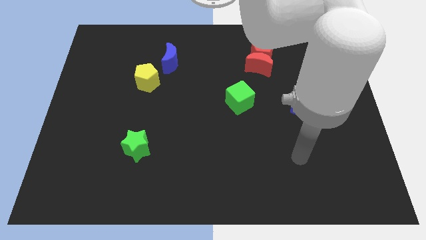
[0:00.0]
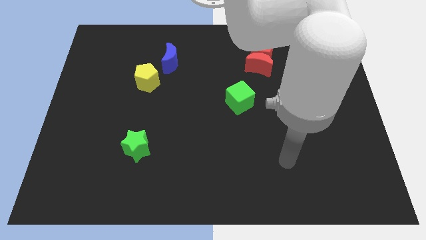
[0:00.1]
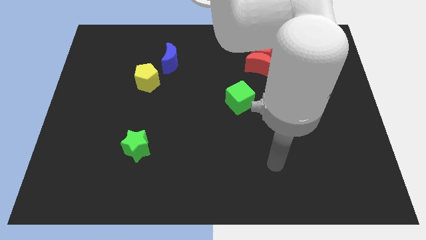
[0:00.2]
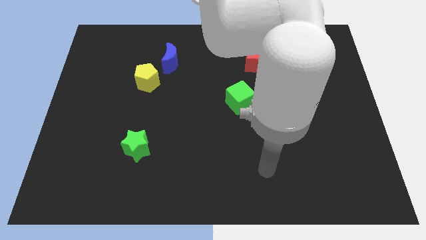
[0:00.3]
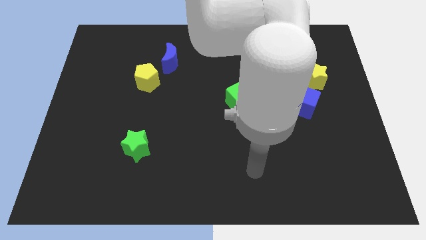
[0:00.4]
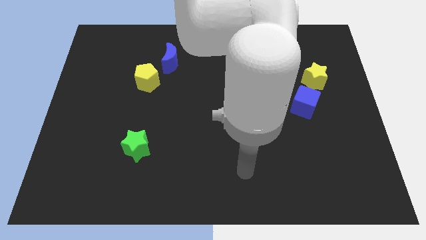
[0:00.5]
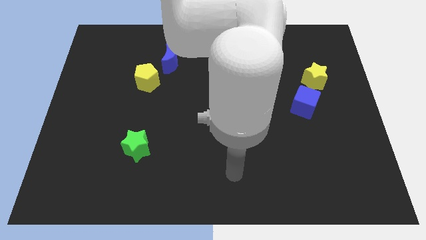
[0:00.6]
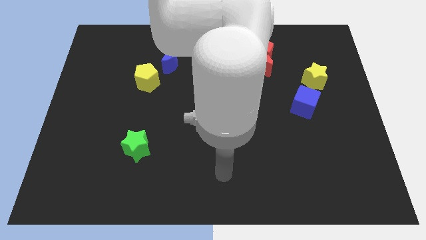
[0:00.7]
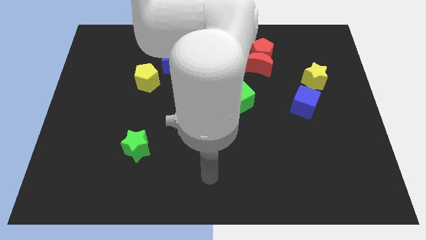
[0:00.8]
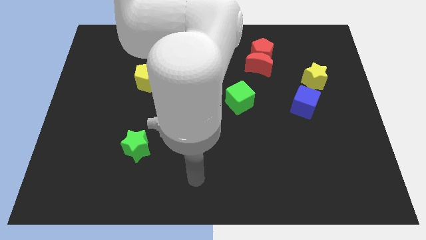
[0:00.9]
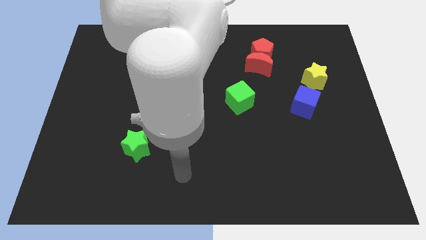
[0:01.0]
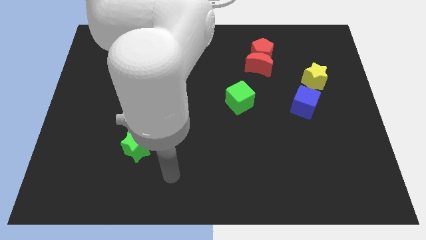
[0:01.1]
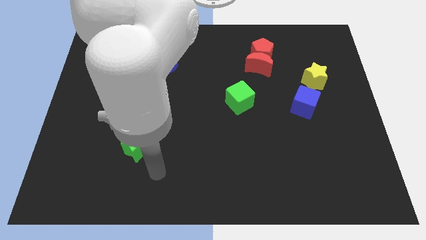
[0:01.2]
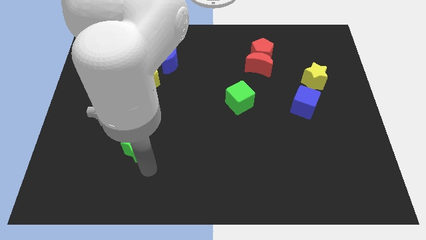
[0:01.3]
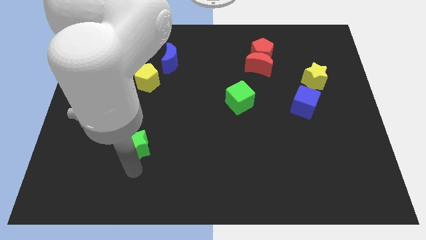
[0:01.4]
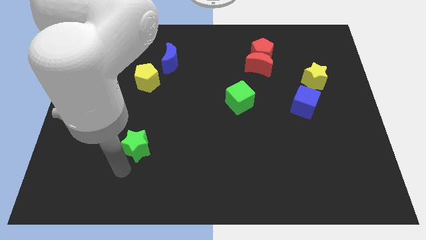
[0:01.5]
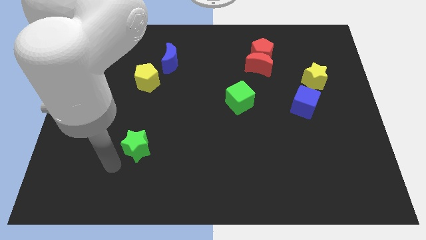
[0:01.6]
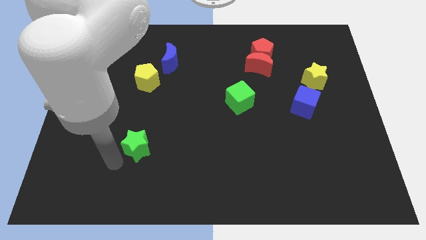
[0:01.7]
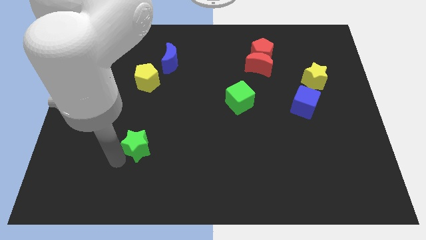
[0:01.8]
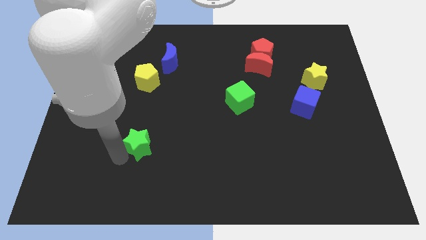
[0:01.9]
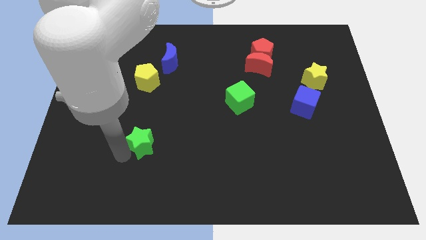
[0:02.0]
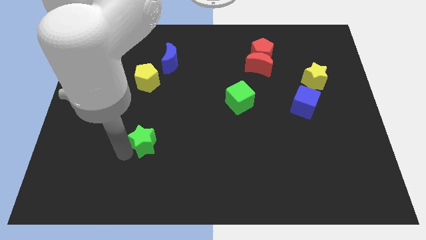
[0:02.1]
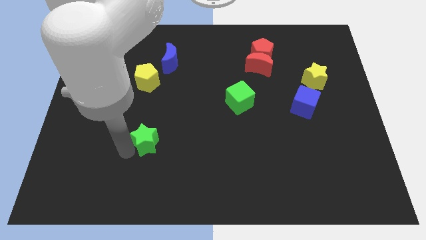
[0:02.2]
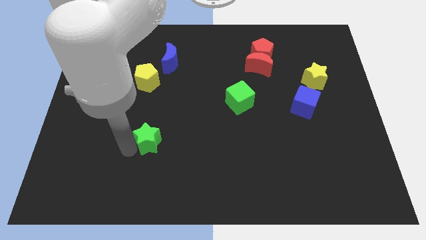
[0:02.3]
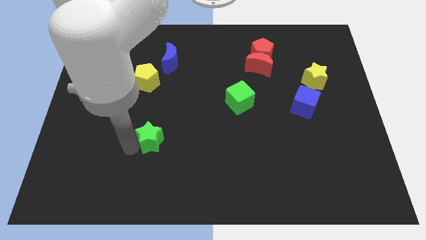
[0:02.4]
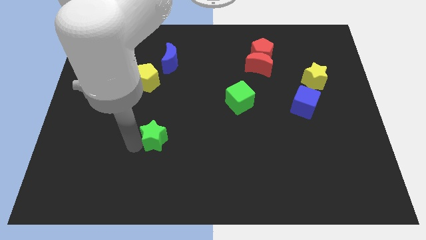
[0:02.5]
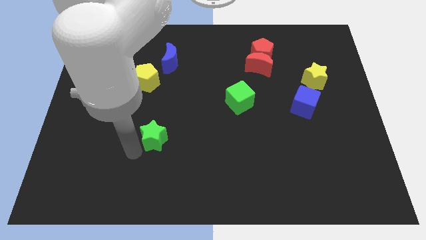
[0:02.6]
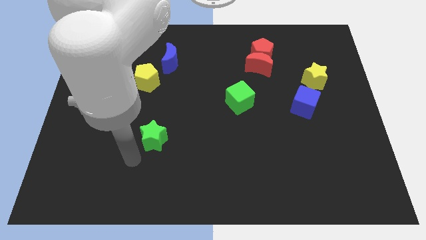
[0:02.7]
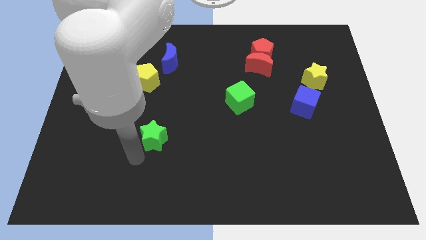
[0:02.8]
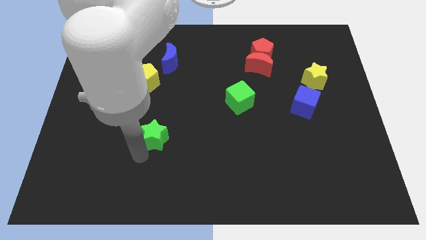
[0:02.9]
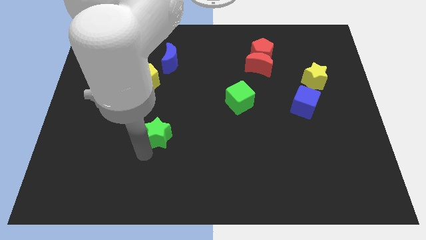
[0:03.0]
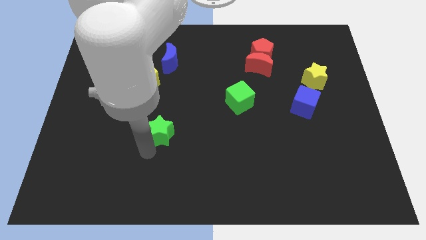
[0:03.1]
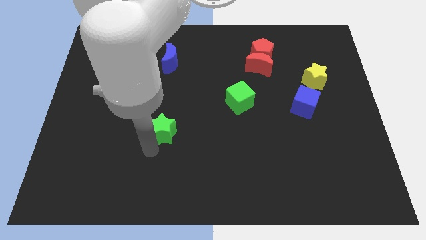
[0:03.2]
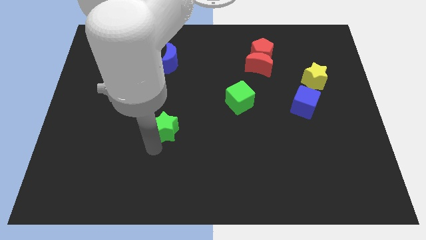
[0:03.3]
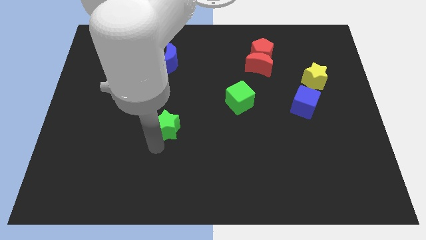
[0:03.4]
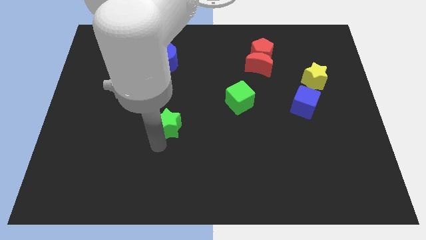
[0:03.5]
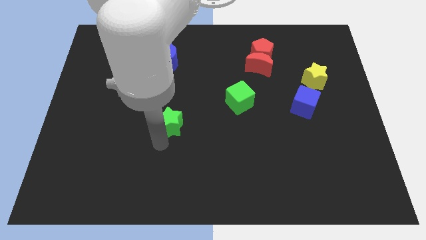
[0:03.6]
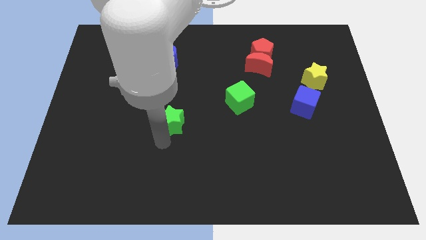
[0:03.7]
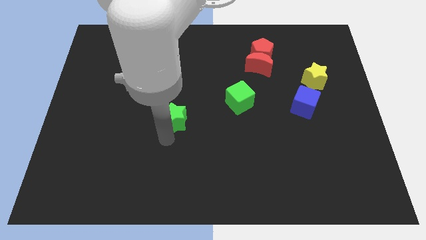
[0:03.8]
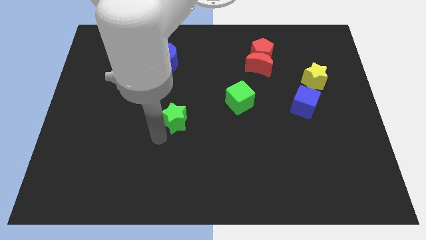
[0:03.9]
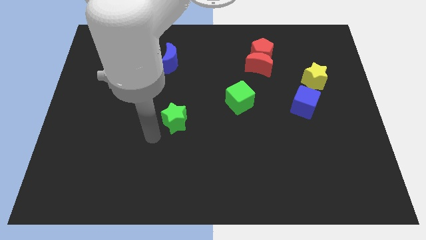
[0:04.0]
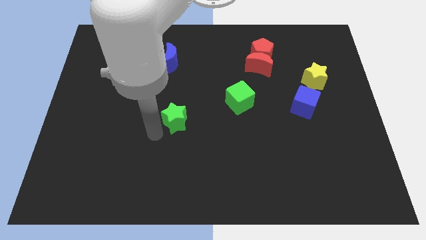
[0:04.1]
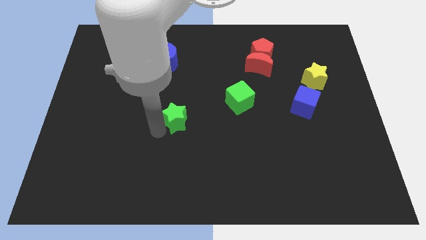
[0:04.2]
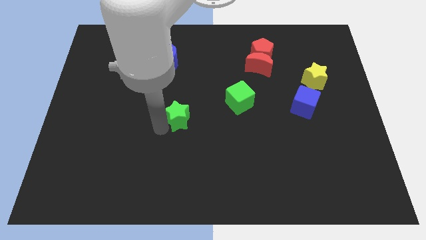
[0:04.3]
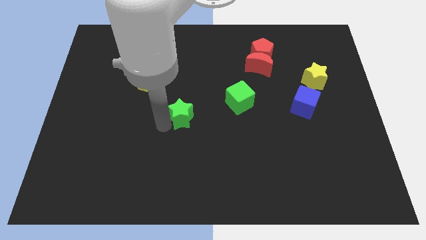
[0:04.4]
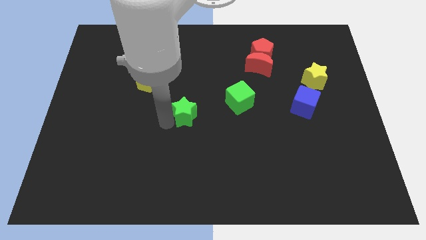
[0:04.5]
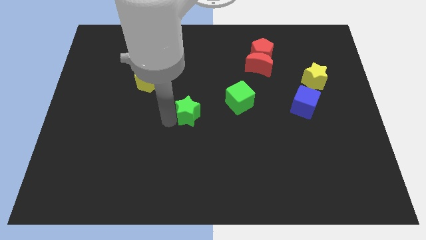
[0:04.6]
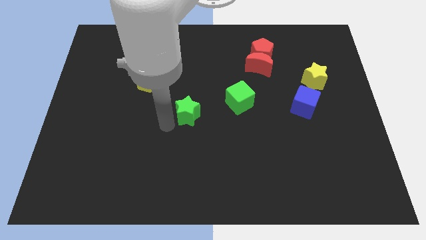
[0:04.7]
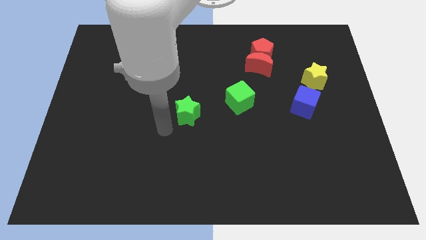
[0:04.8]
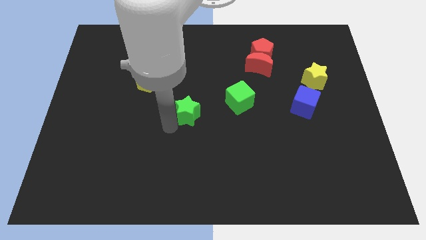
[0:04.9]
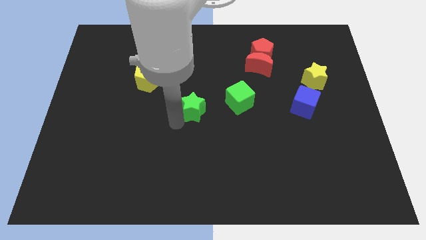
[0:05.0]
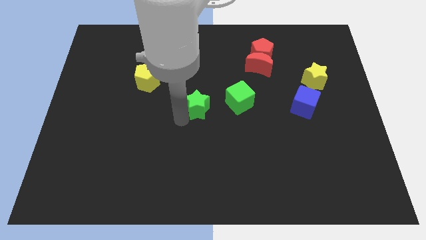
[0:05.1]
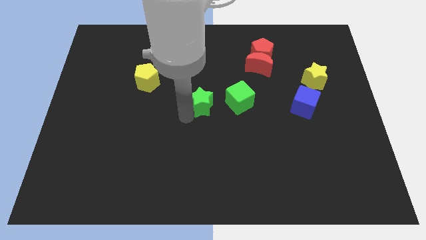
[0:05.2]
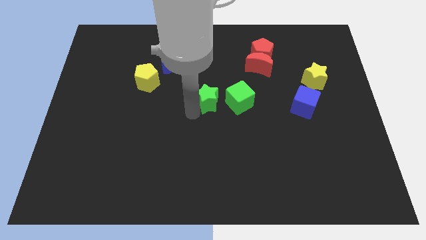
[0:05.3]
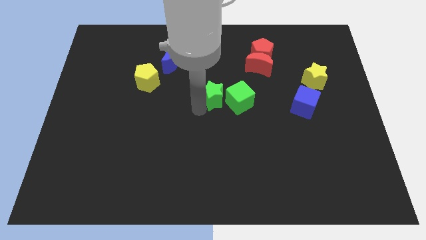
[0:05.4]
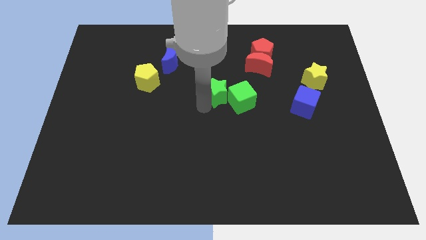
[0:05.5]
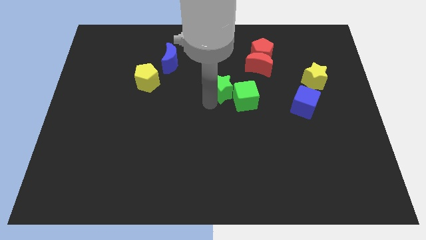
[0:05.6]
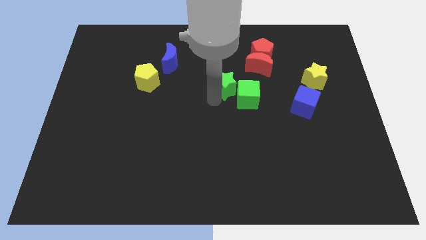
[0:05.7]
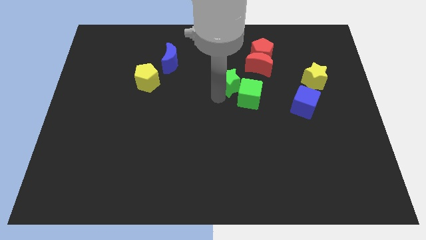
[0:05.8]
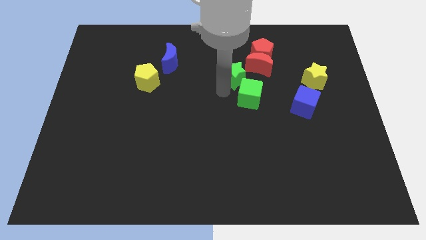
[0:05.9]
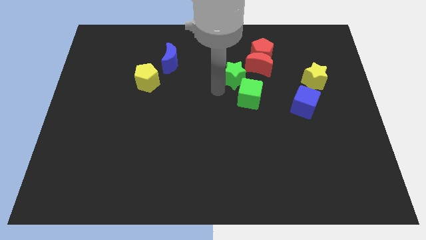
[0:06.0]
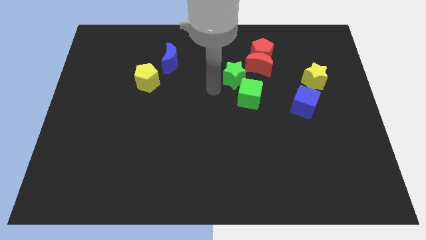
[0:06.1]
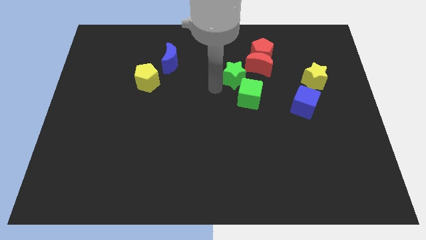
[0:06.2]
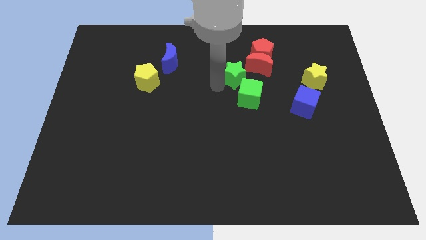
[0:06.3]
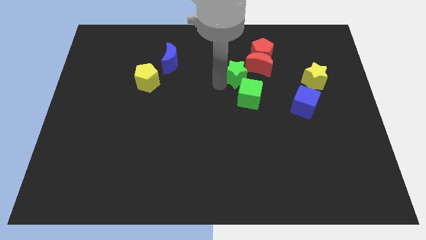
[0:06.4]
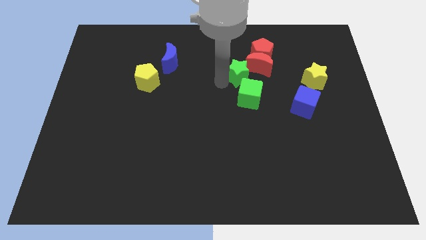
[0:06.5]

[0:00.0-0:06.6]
slide the green star next to the red moon
